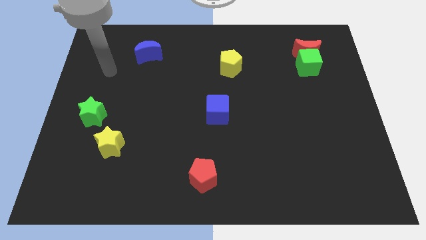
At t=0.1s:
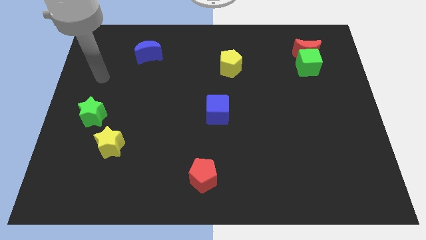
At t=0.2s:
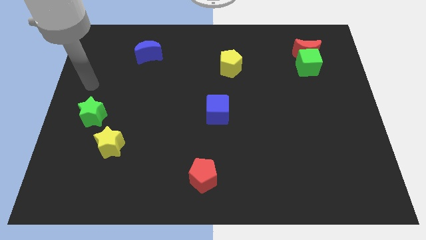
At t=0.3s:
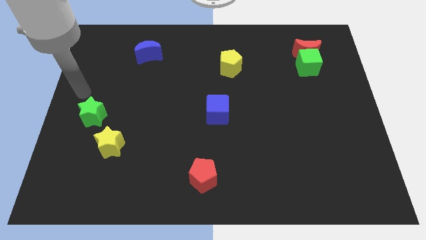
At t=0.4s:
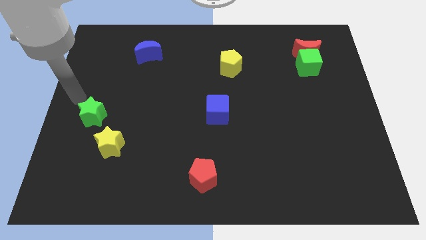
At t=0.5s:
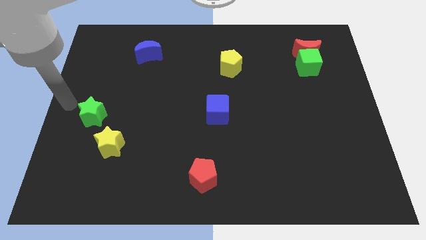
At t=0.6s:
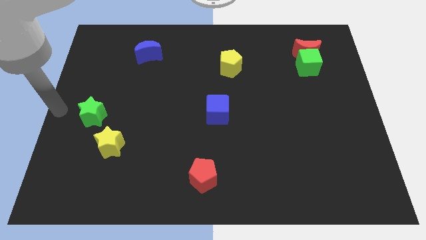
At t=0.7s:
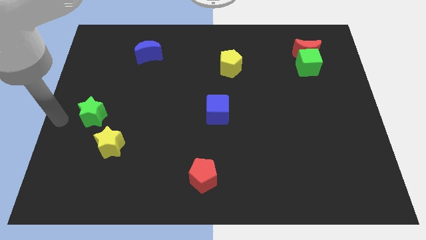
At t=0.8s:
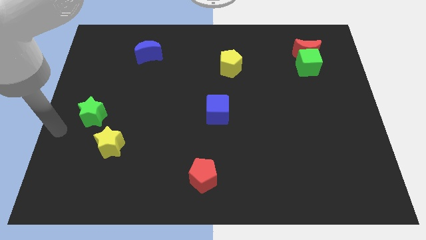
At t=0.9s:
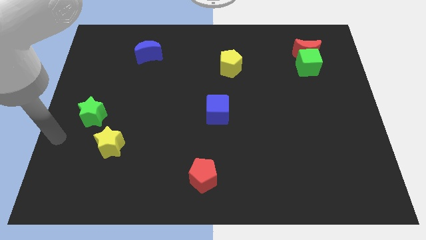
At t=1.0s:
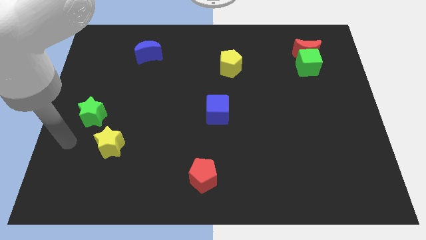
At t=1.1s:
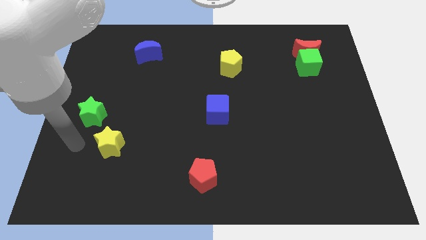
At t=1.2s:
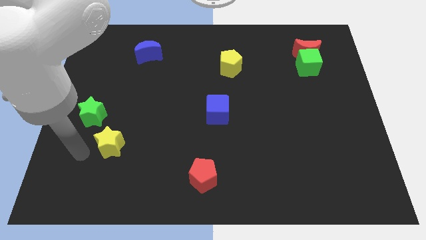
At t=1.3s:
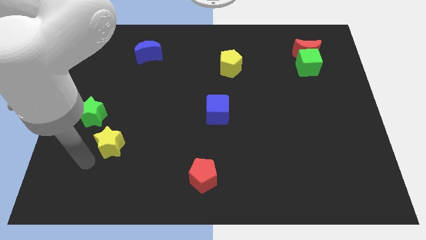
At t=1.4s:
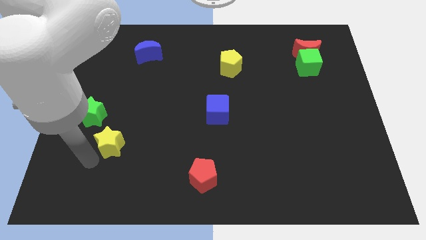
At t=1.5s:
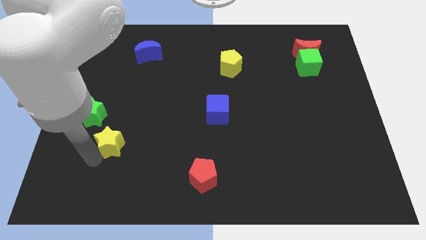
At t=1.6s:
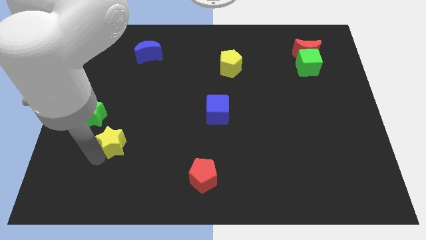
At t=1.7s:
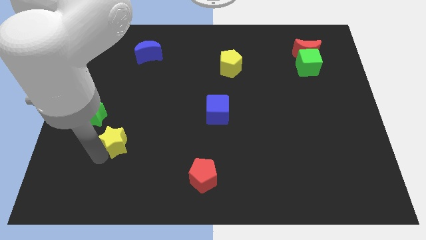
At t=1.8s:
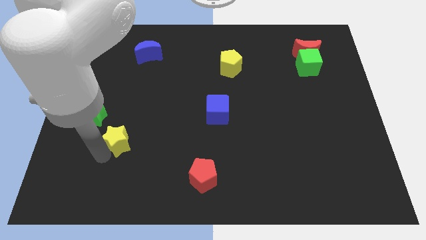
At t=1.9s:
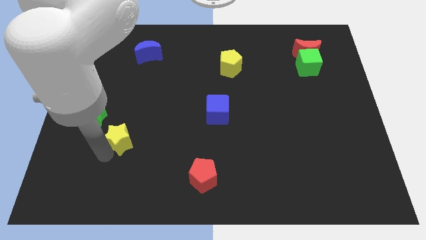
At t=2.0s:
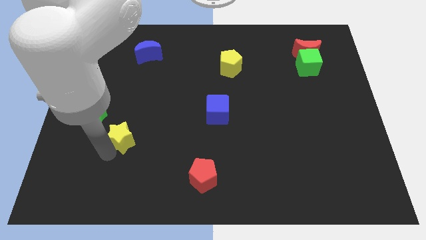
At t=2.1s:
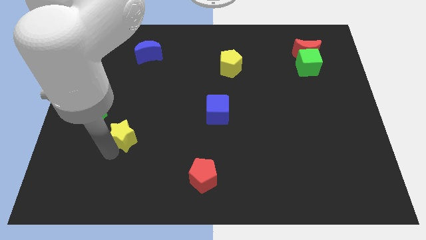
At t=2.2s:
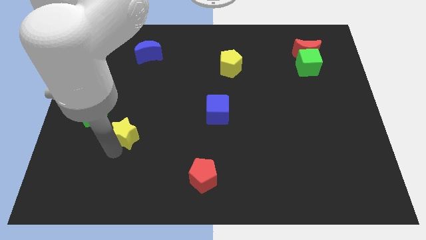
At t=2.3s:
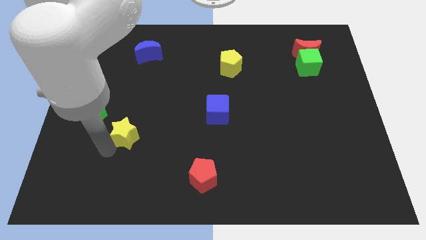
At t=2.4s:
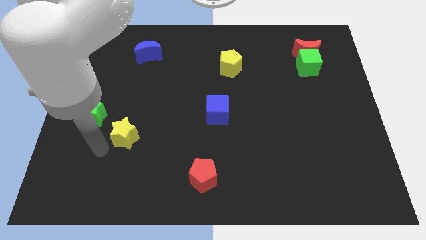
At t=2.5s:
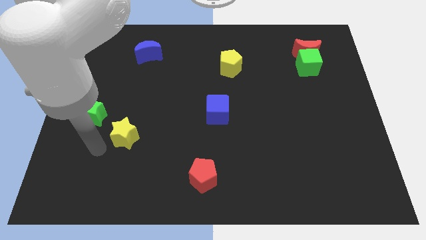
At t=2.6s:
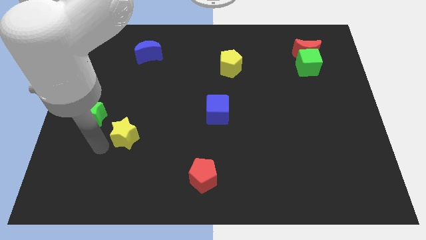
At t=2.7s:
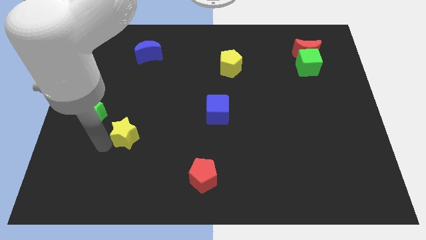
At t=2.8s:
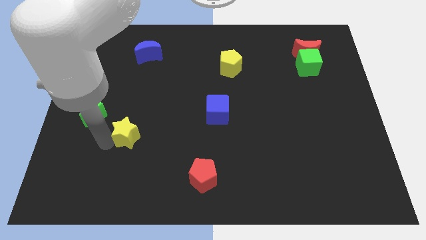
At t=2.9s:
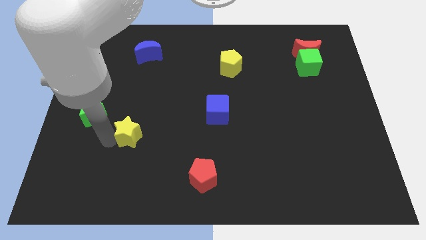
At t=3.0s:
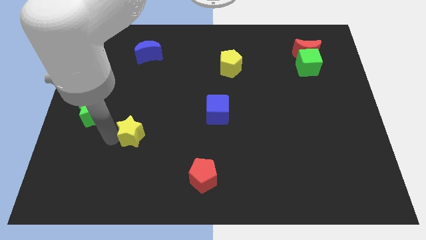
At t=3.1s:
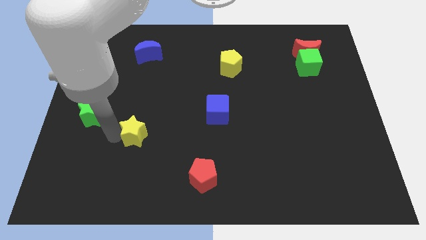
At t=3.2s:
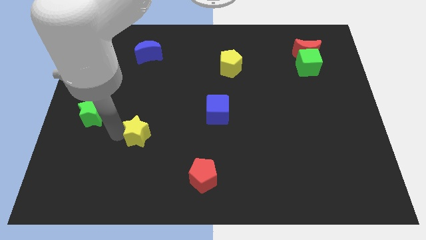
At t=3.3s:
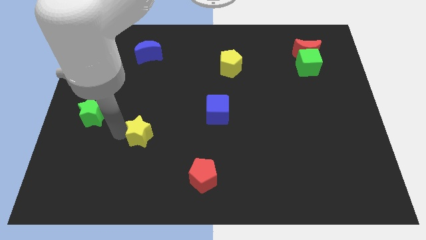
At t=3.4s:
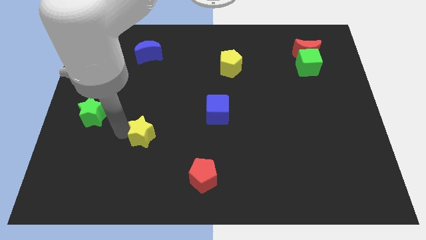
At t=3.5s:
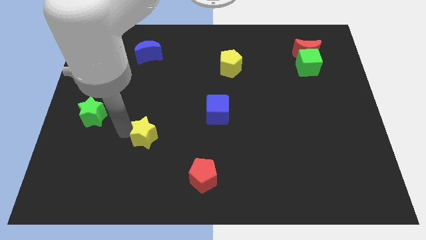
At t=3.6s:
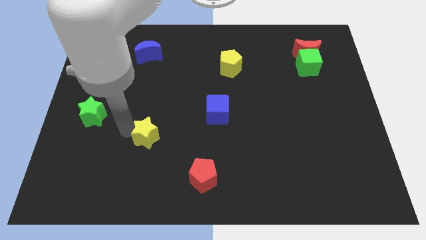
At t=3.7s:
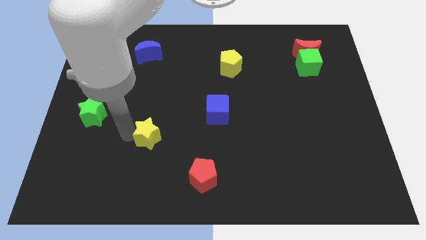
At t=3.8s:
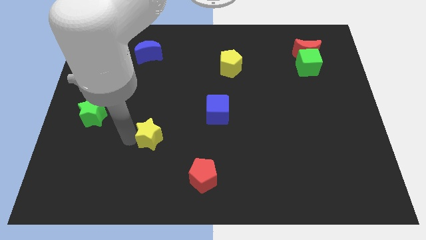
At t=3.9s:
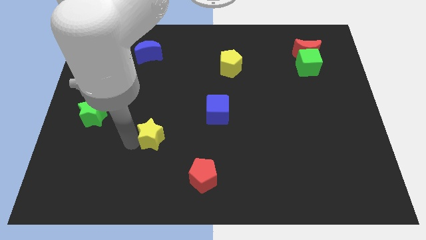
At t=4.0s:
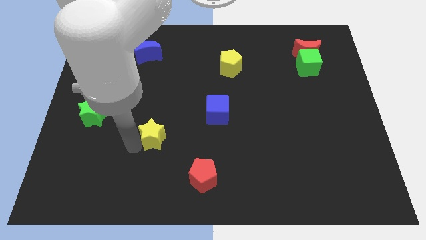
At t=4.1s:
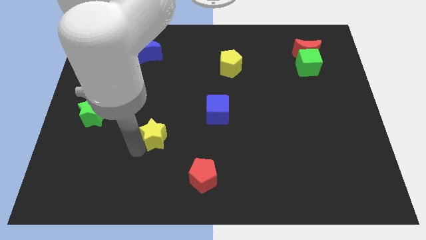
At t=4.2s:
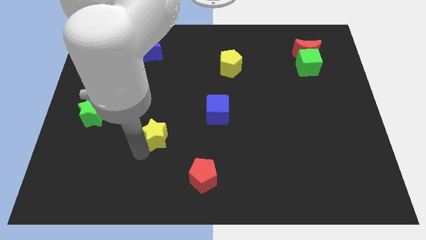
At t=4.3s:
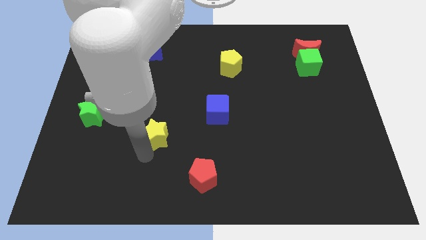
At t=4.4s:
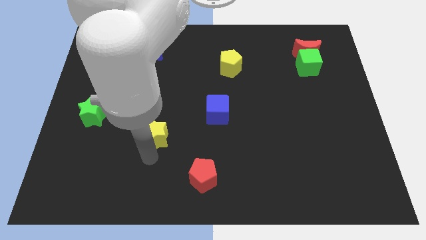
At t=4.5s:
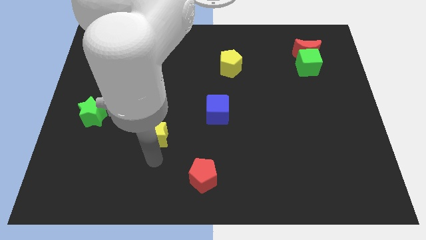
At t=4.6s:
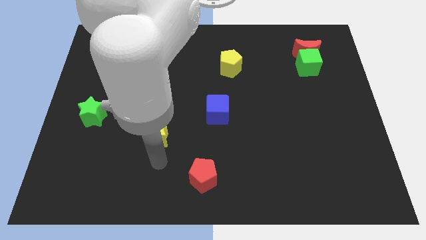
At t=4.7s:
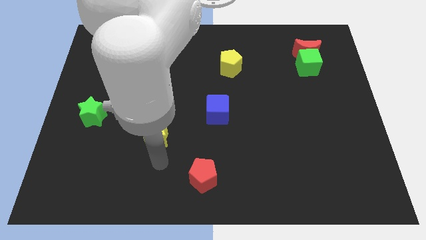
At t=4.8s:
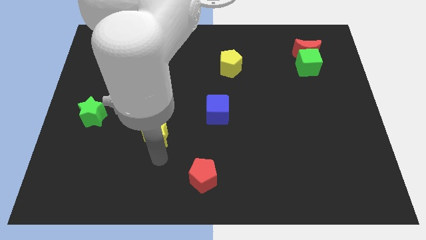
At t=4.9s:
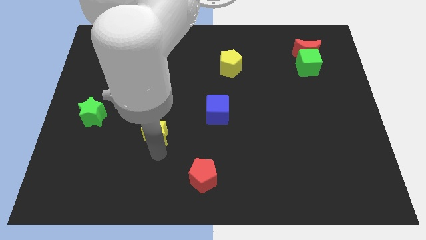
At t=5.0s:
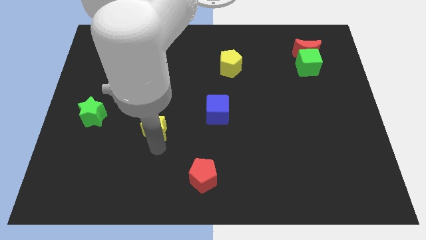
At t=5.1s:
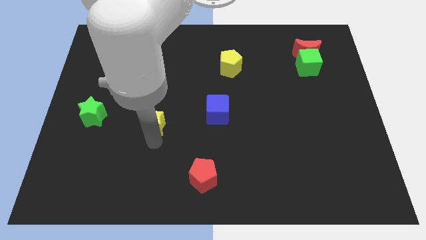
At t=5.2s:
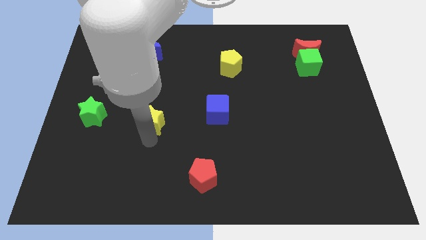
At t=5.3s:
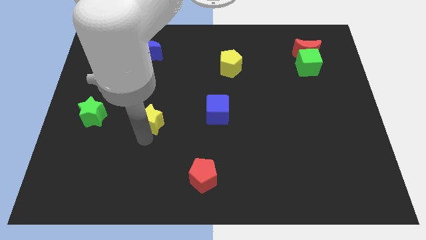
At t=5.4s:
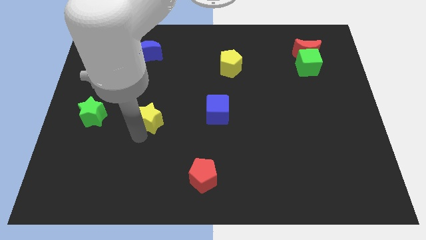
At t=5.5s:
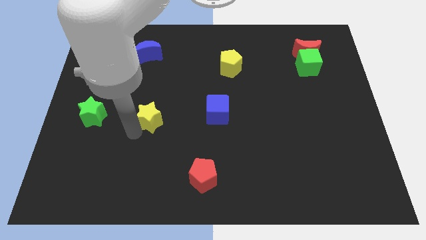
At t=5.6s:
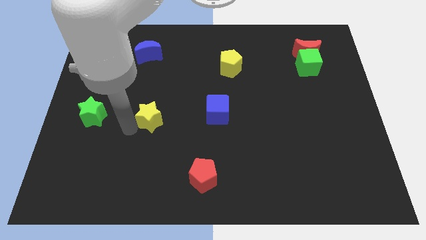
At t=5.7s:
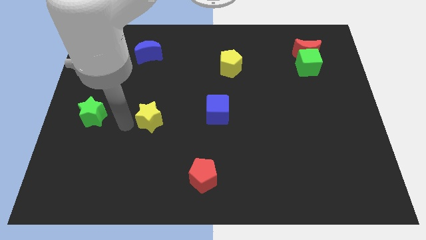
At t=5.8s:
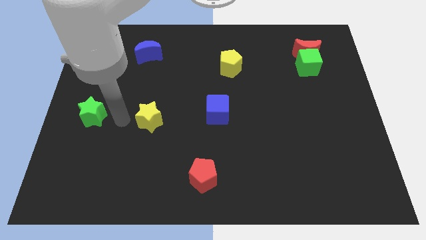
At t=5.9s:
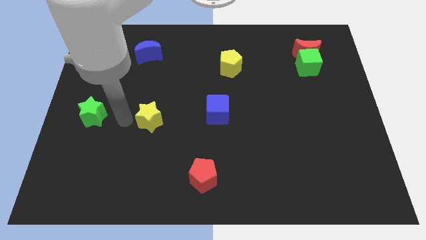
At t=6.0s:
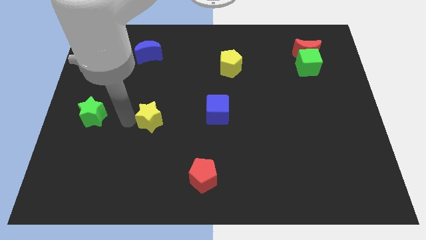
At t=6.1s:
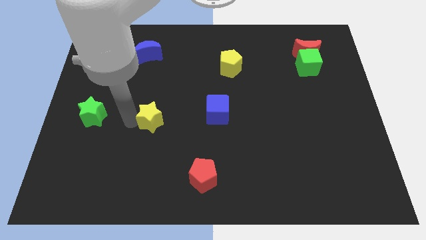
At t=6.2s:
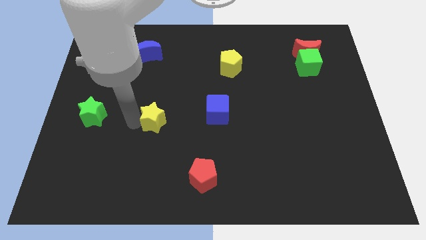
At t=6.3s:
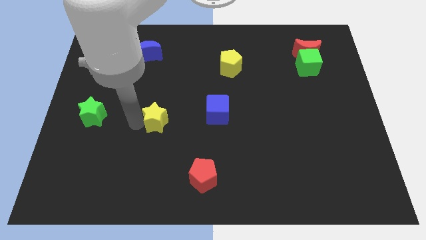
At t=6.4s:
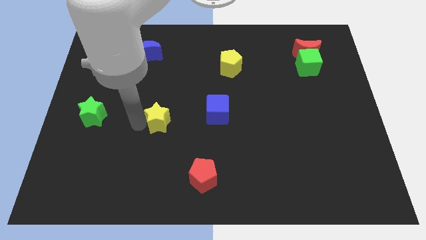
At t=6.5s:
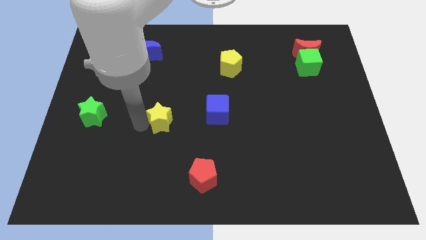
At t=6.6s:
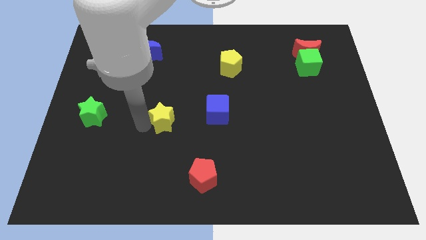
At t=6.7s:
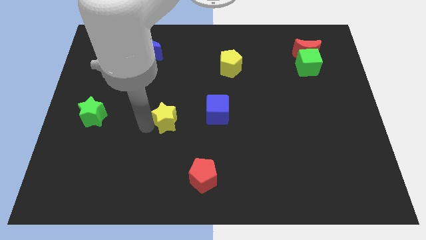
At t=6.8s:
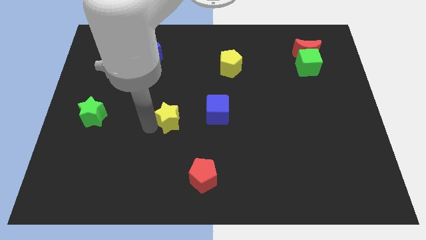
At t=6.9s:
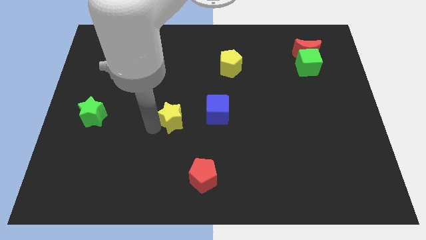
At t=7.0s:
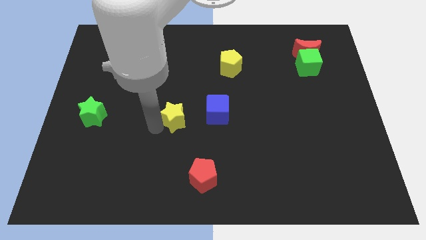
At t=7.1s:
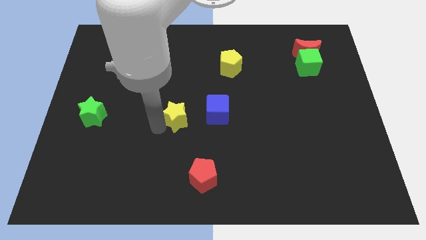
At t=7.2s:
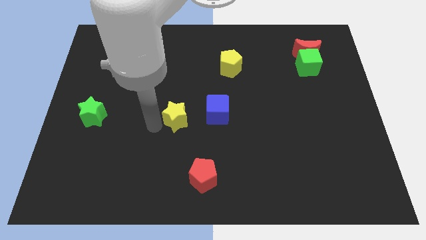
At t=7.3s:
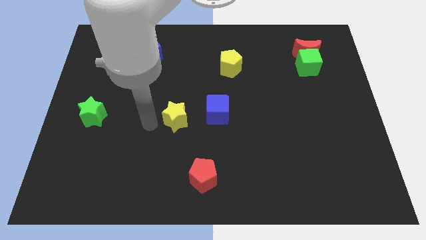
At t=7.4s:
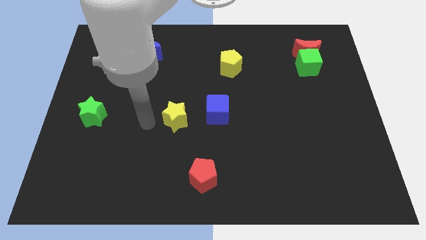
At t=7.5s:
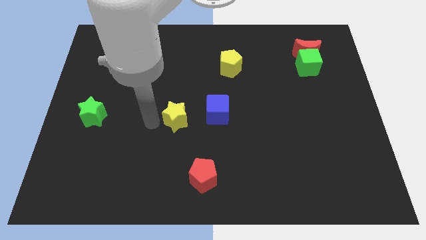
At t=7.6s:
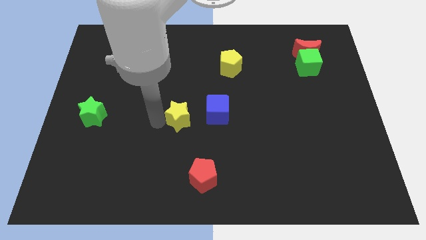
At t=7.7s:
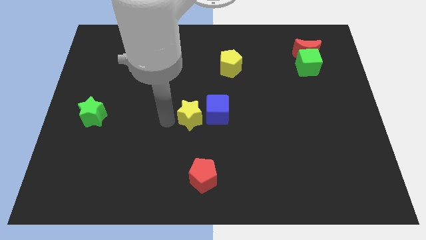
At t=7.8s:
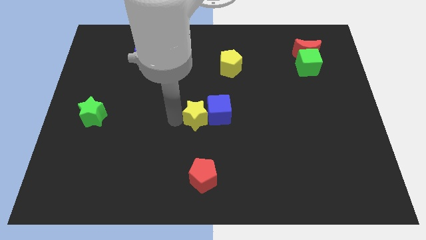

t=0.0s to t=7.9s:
move the yellow star towards the blue cube
